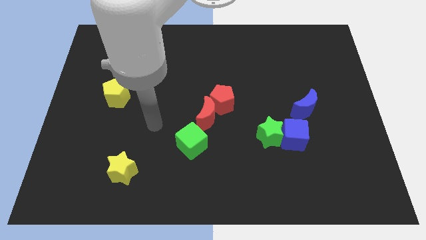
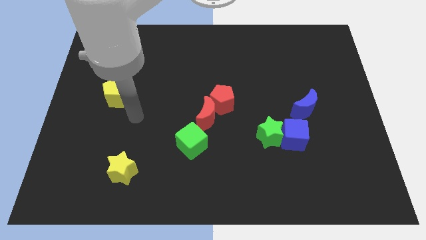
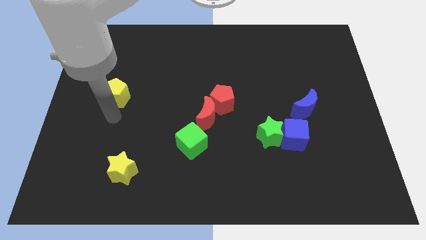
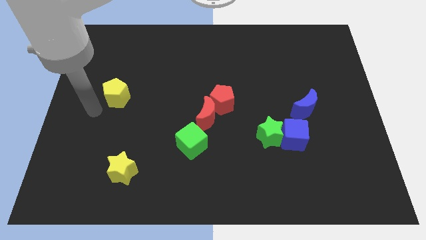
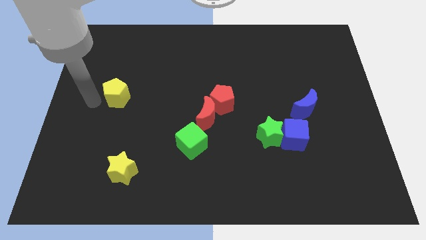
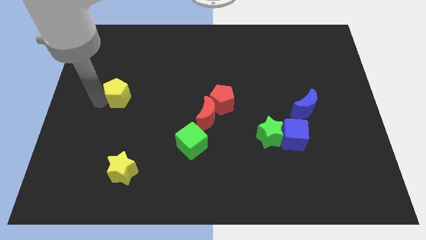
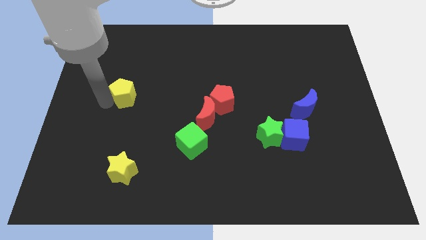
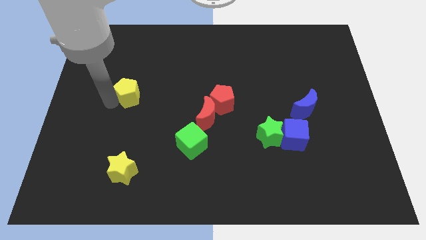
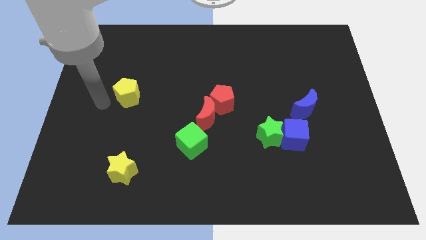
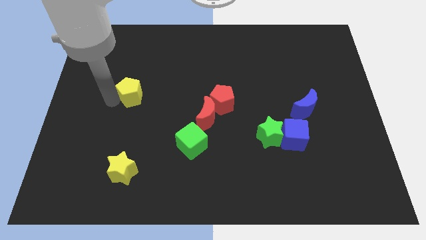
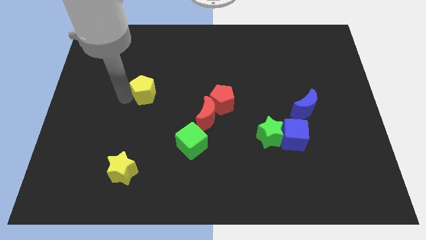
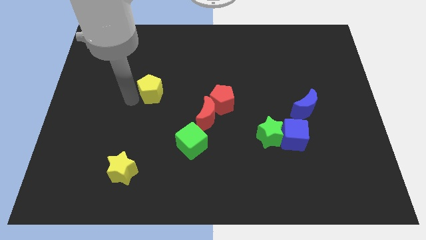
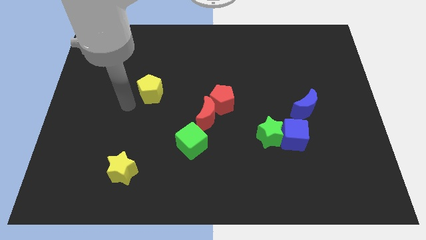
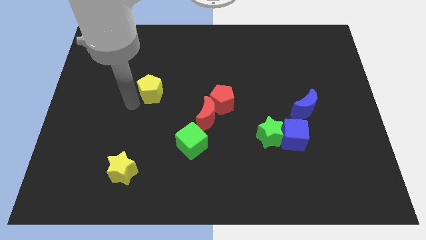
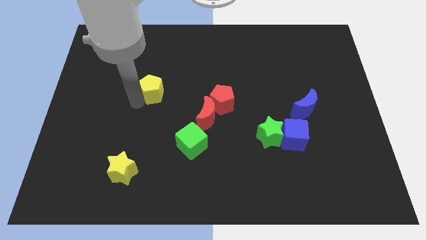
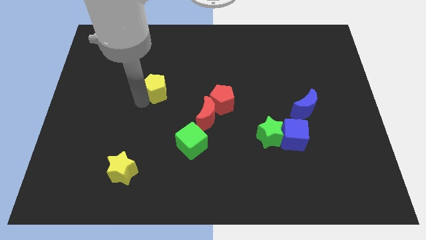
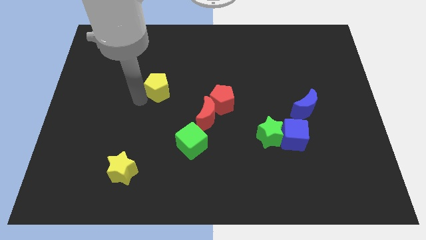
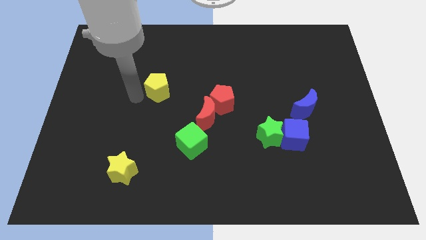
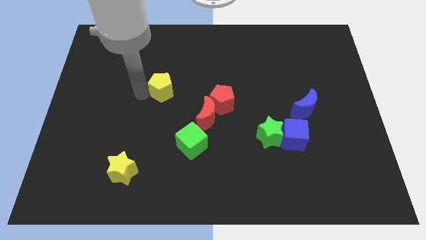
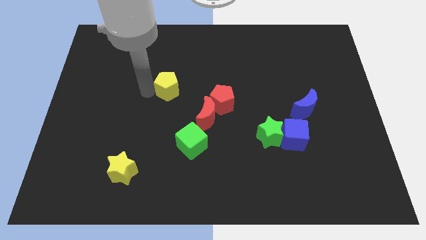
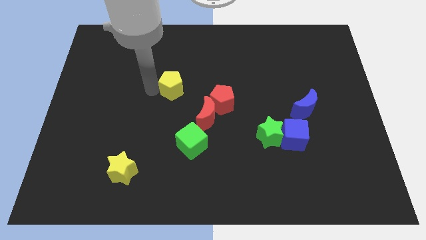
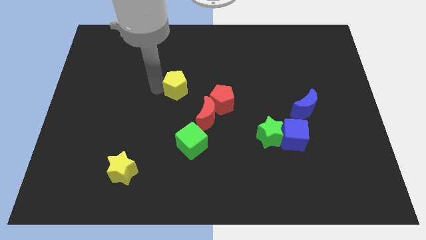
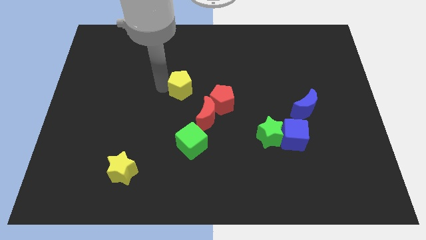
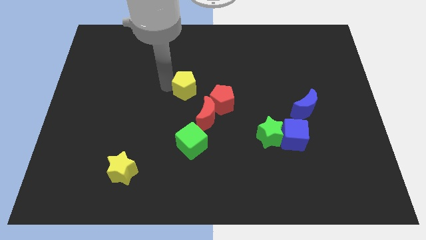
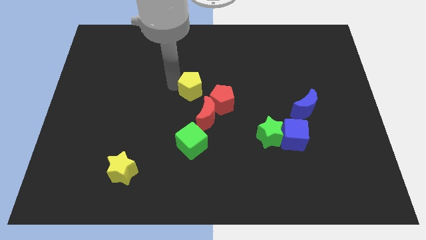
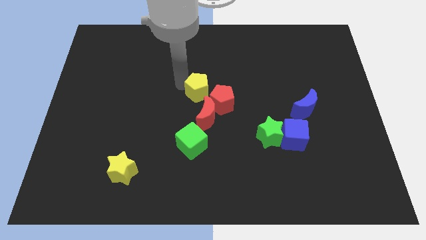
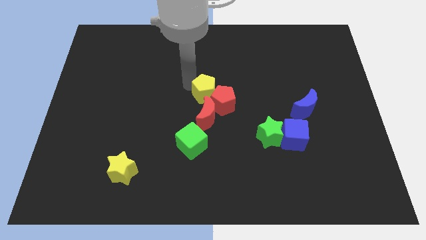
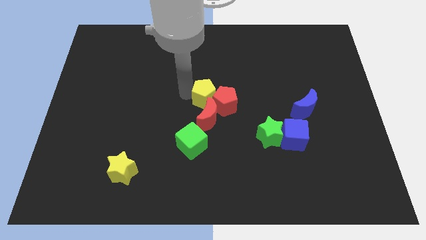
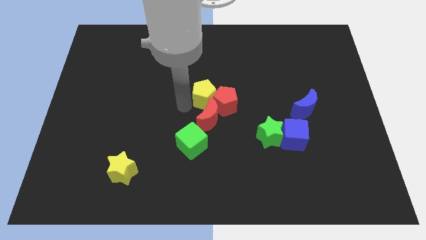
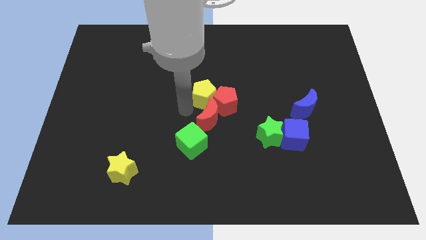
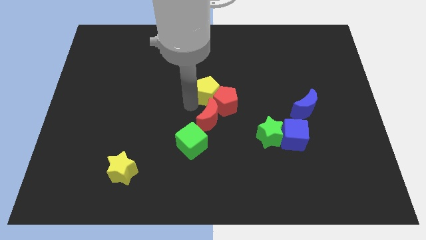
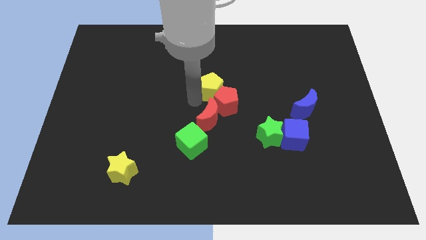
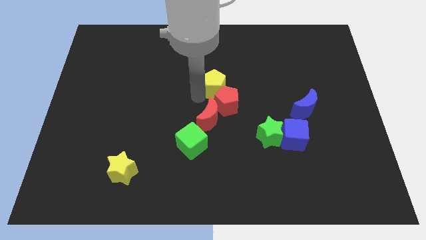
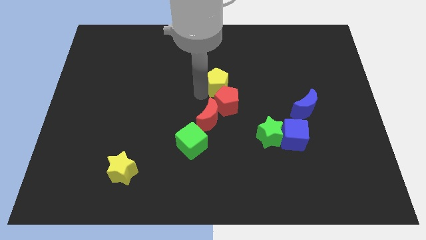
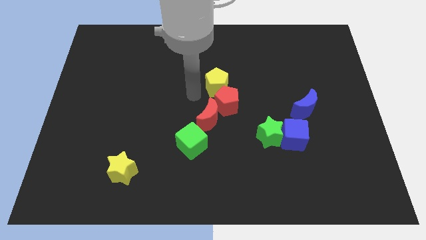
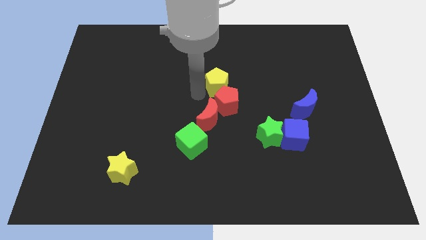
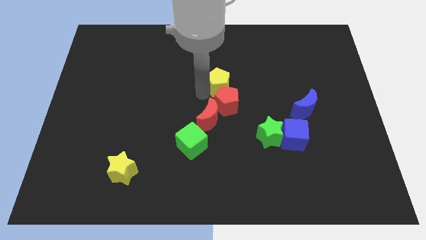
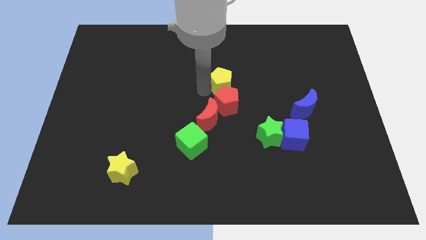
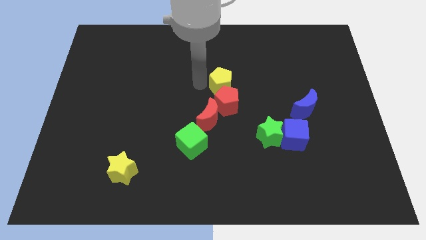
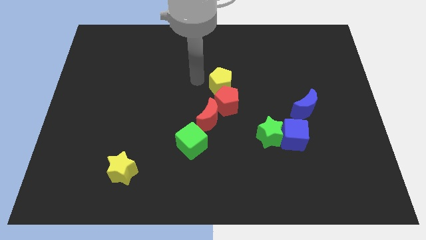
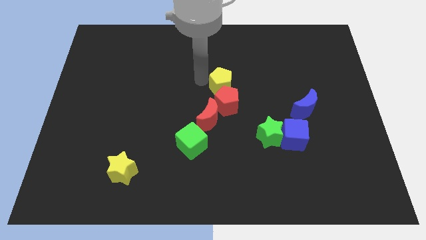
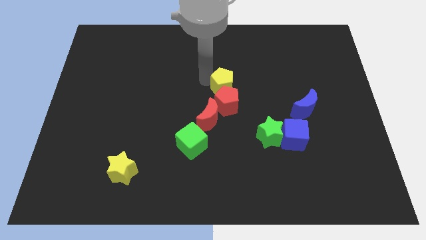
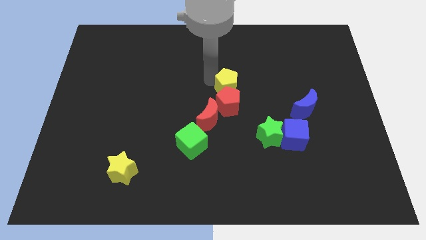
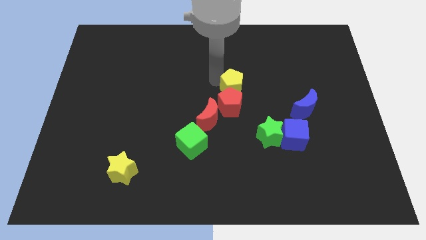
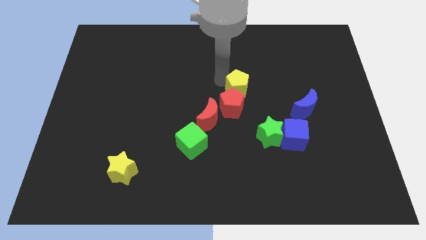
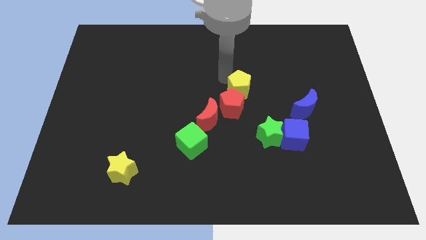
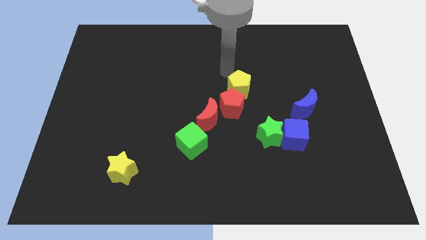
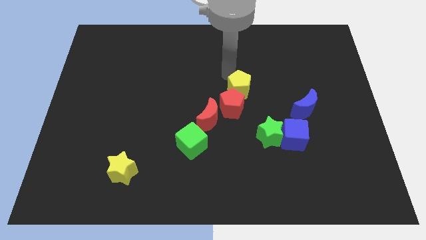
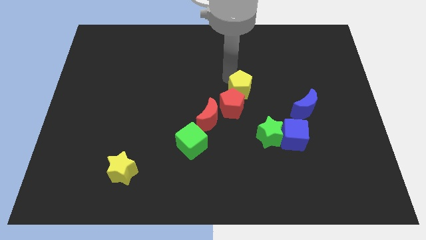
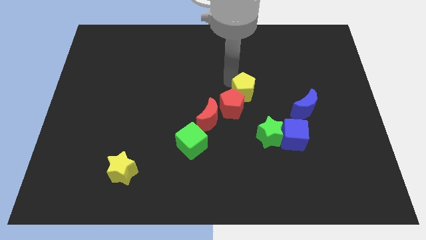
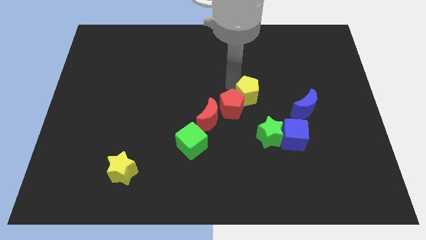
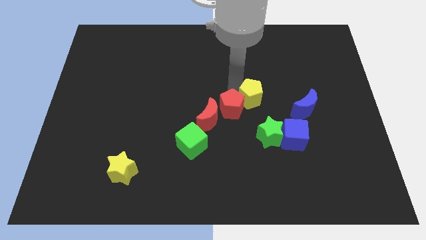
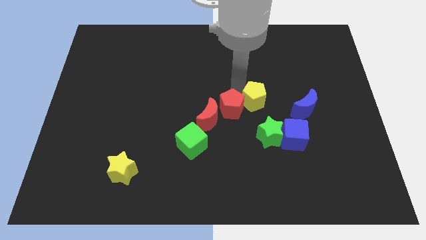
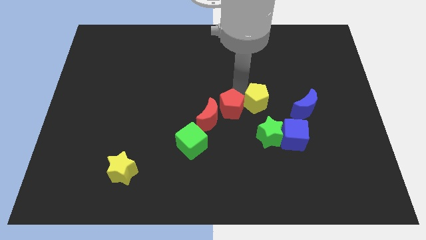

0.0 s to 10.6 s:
move the yellow pentagon diagonally up and to the left of the blue cube

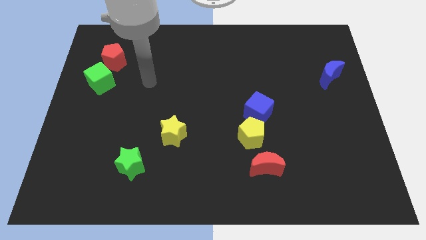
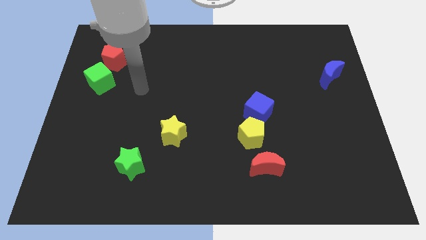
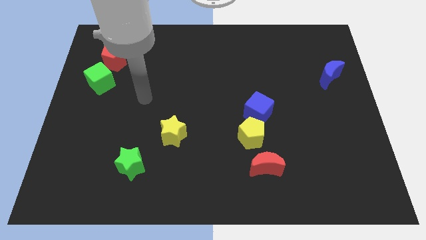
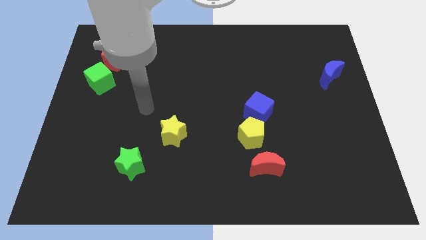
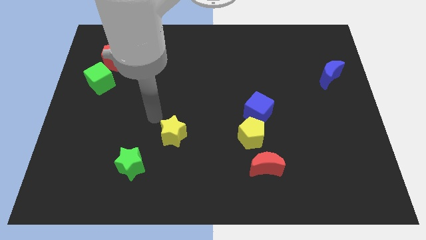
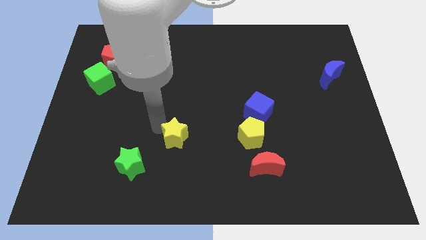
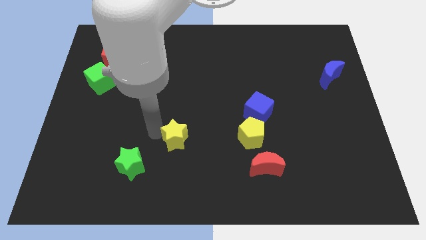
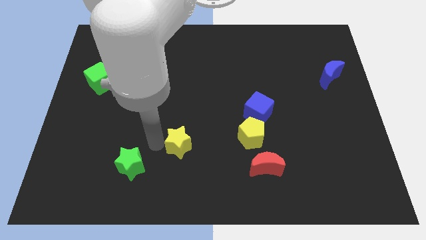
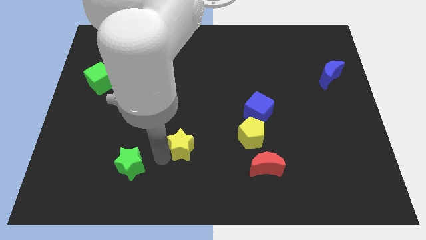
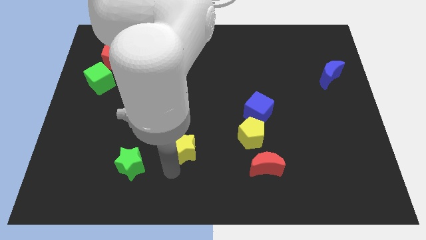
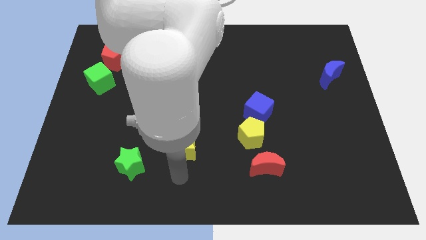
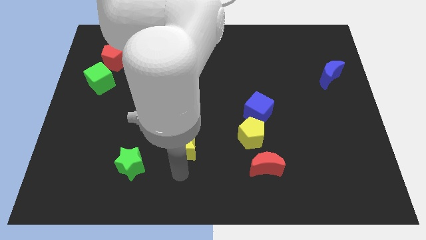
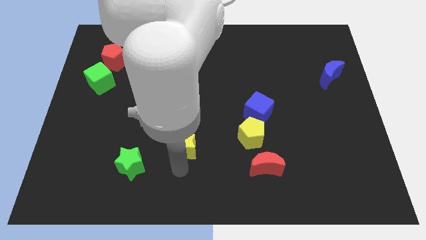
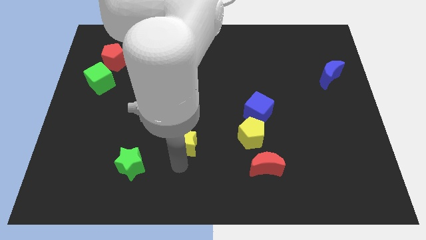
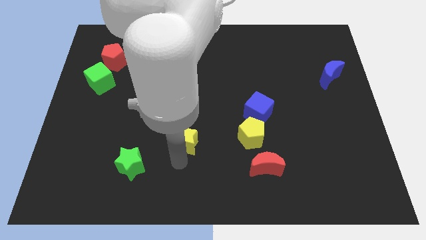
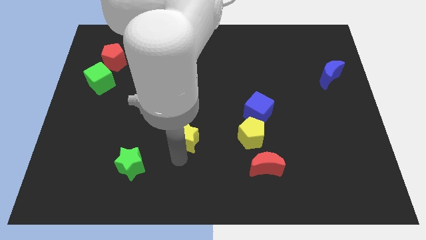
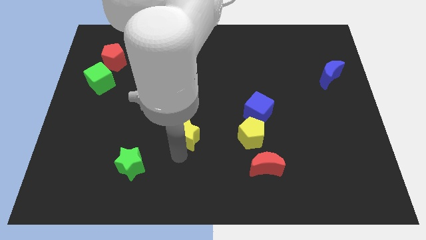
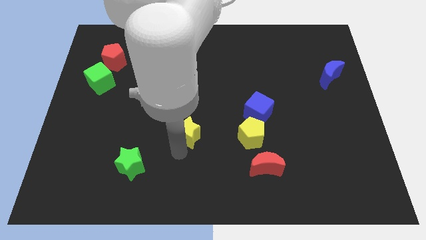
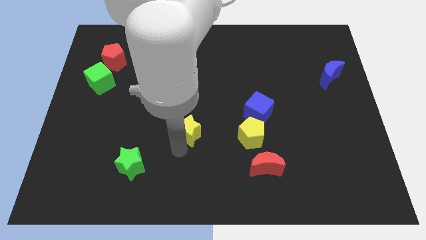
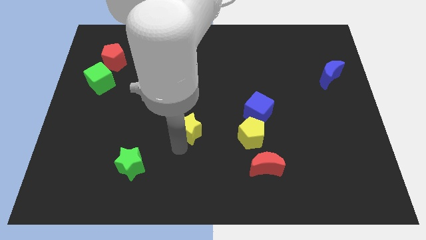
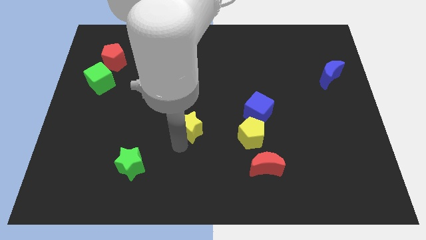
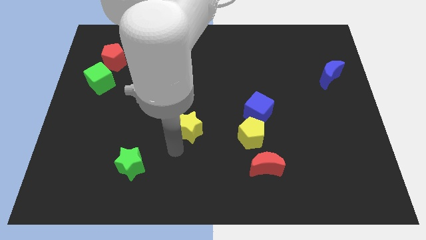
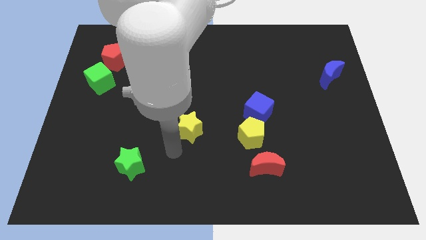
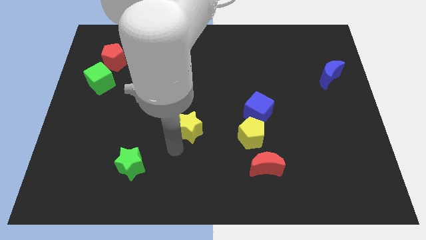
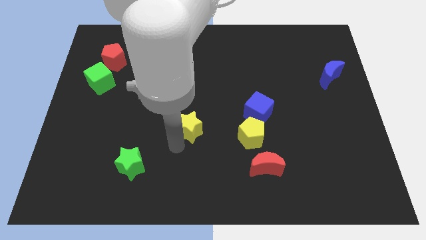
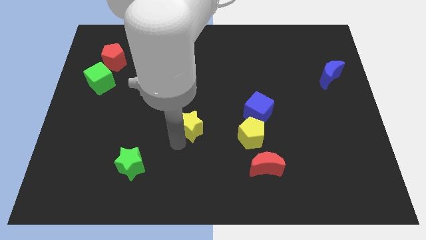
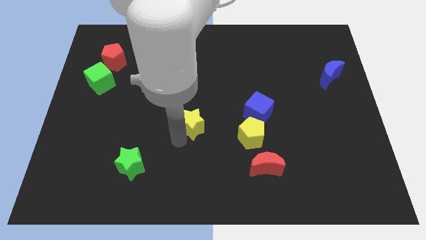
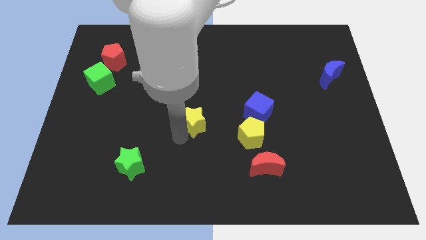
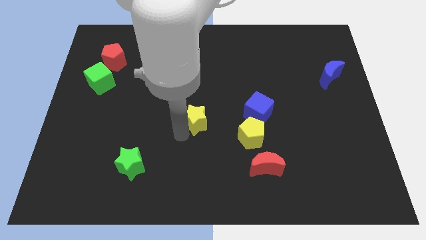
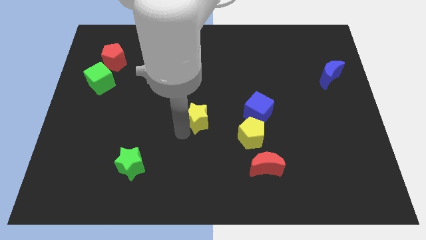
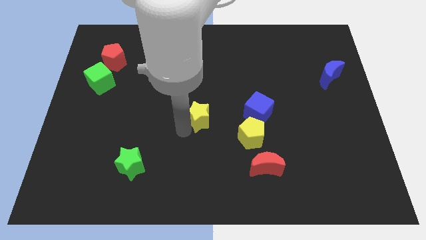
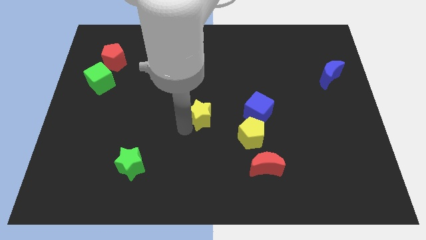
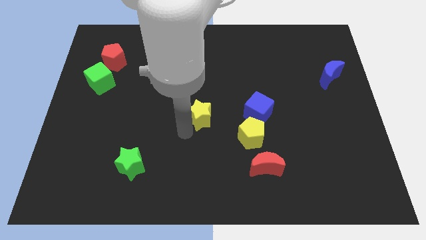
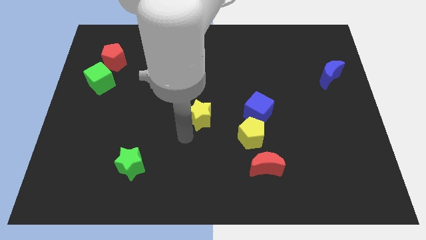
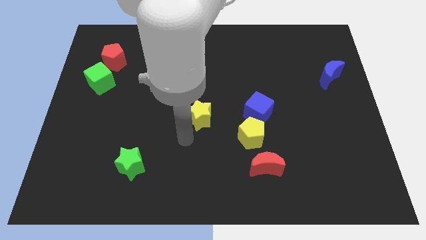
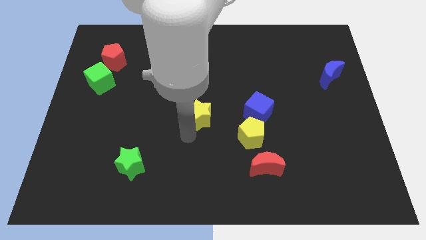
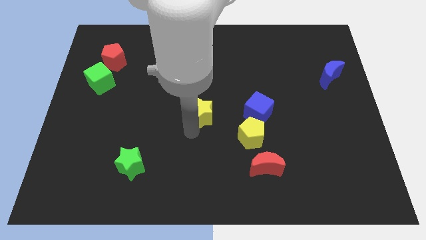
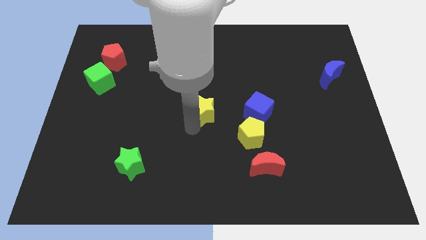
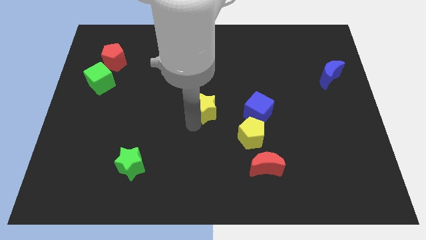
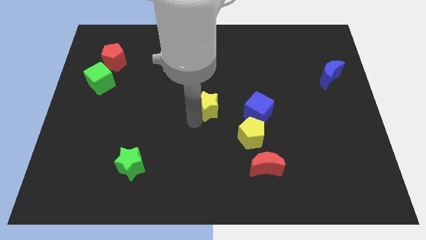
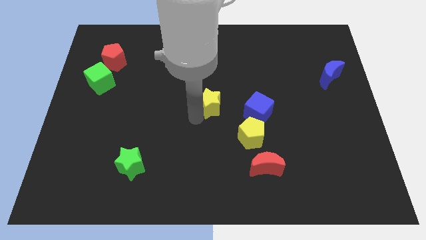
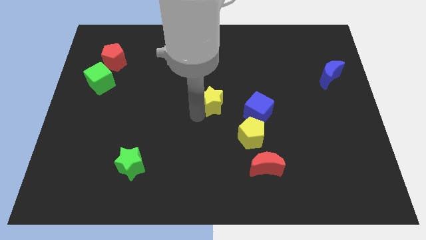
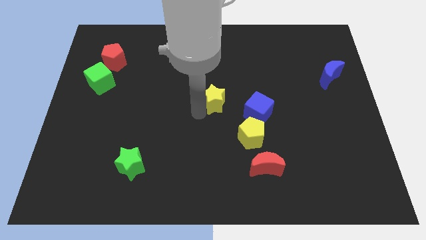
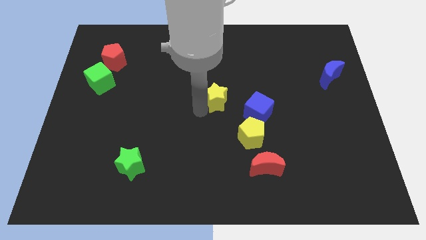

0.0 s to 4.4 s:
move the yellow star to the top left side of the blue cube
